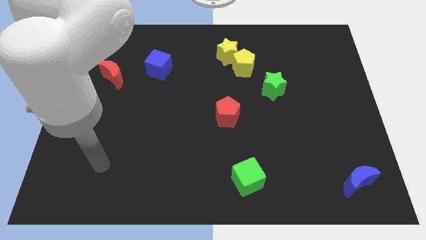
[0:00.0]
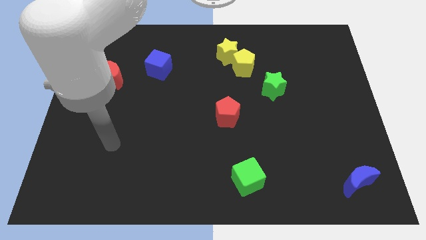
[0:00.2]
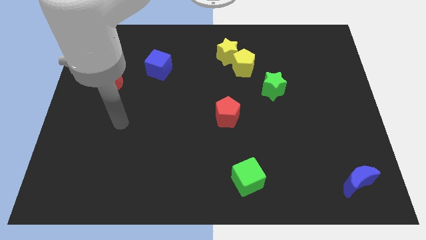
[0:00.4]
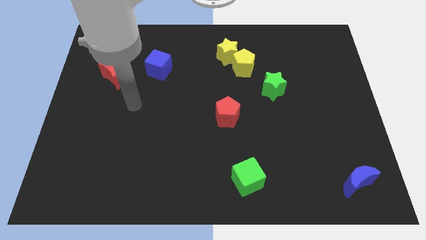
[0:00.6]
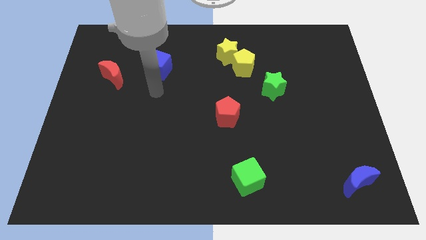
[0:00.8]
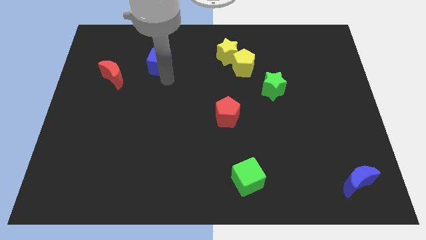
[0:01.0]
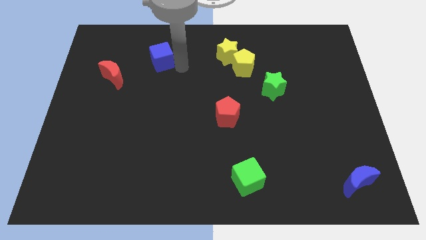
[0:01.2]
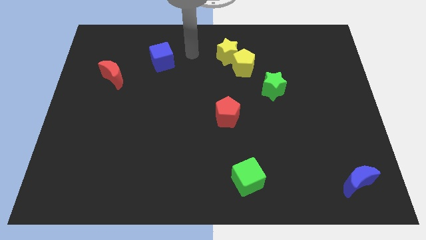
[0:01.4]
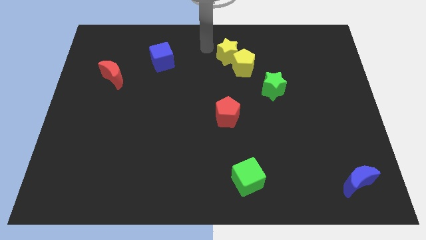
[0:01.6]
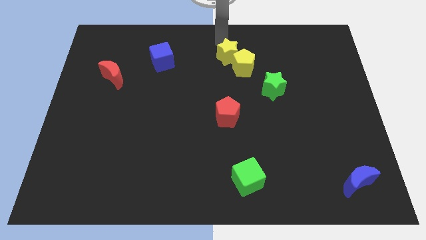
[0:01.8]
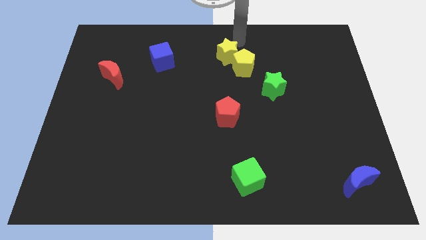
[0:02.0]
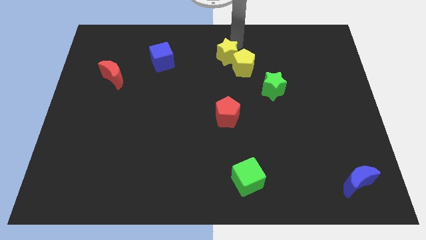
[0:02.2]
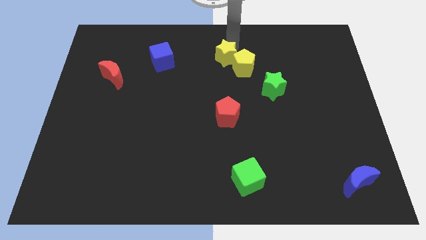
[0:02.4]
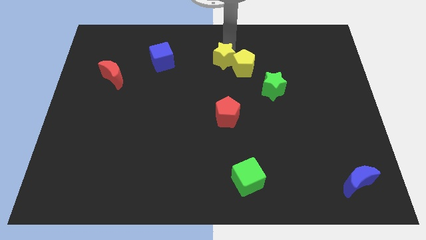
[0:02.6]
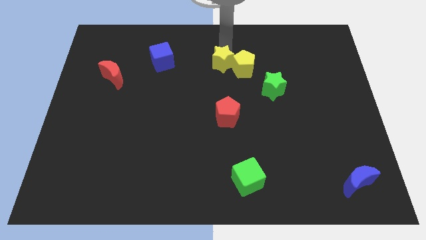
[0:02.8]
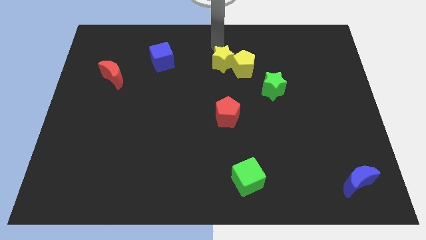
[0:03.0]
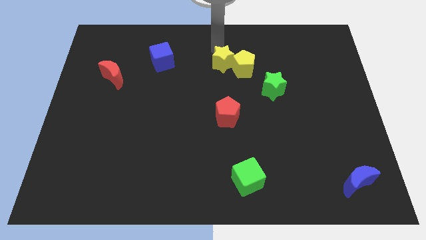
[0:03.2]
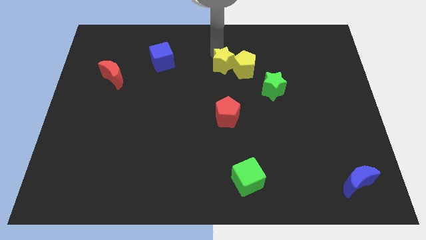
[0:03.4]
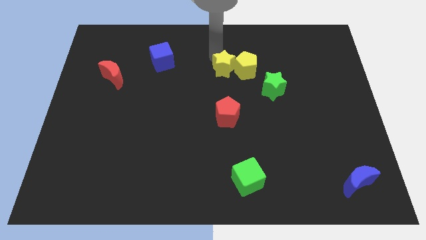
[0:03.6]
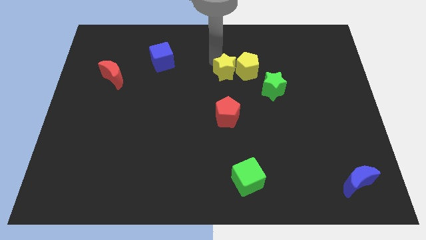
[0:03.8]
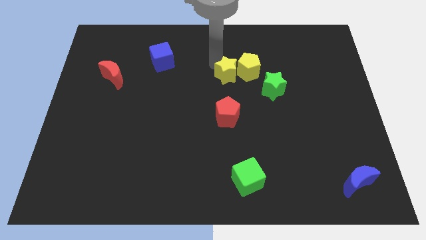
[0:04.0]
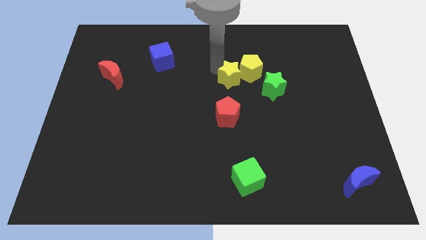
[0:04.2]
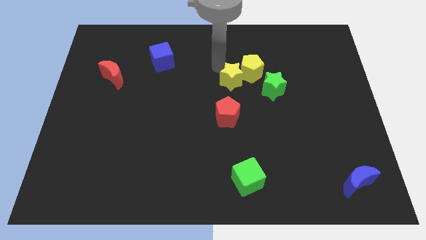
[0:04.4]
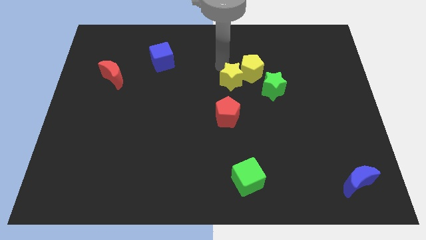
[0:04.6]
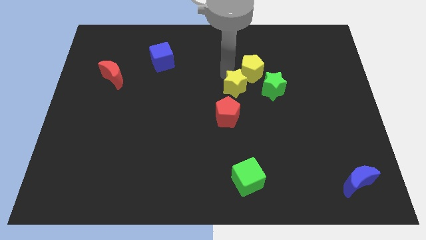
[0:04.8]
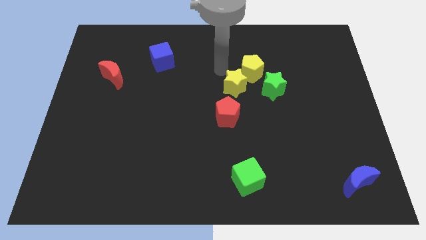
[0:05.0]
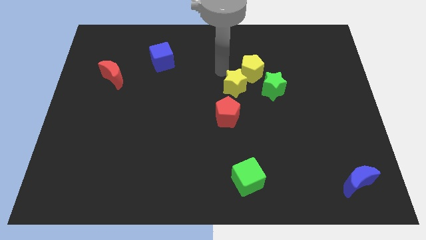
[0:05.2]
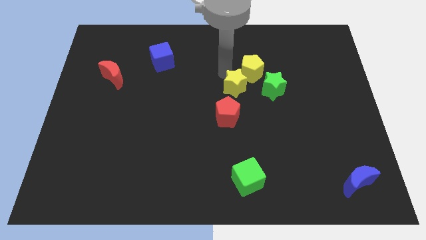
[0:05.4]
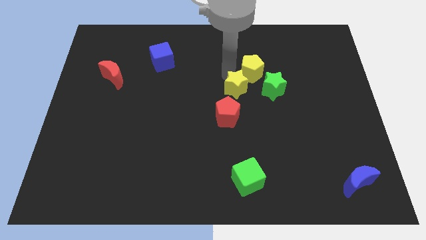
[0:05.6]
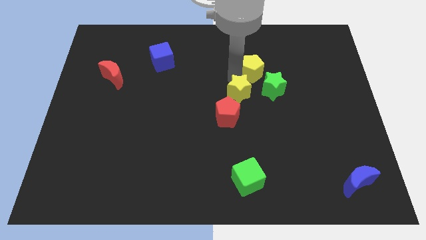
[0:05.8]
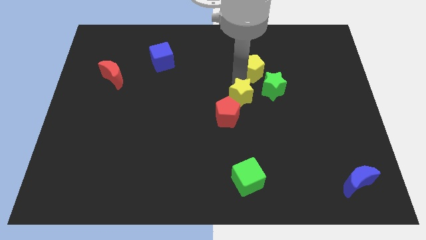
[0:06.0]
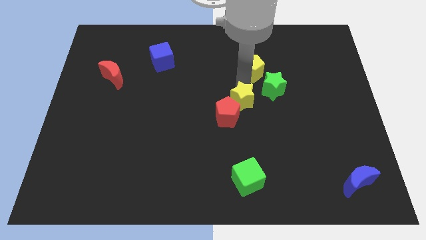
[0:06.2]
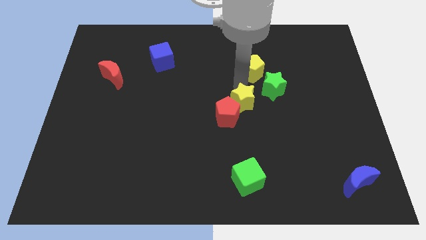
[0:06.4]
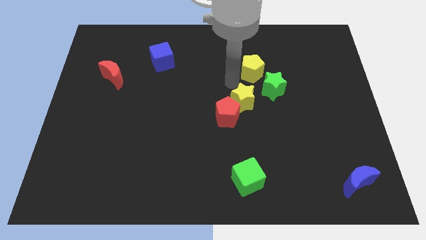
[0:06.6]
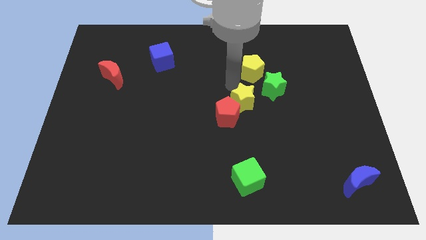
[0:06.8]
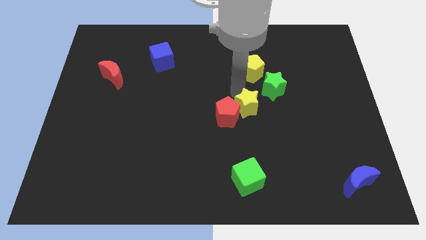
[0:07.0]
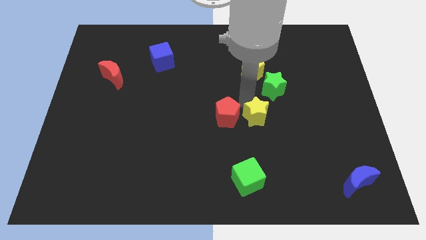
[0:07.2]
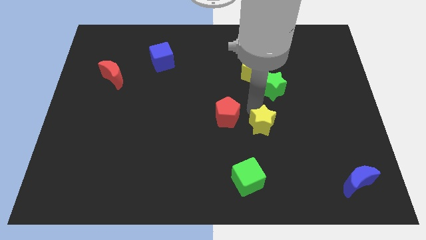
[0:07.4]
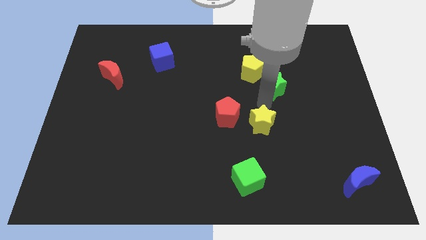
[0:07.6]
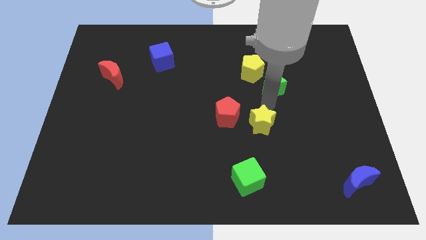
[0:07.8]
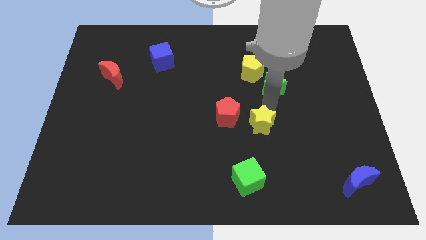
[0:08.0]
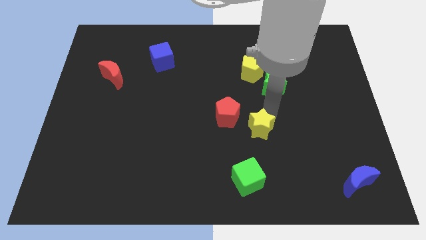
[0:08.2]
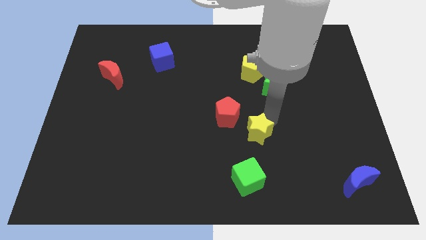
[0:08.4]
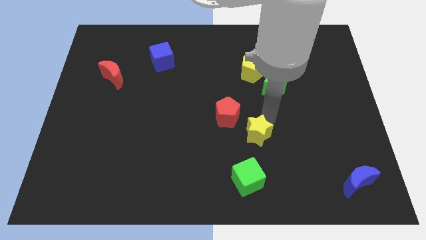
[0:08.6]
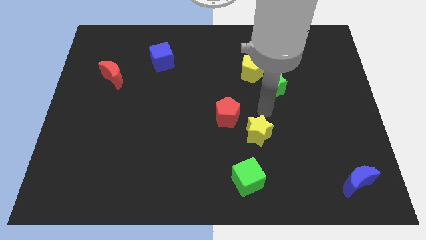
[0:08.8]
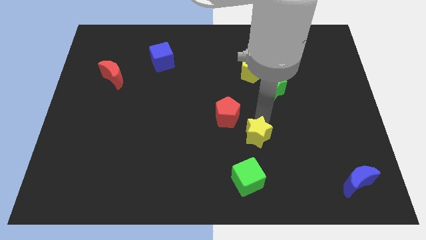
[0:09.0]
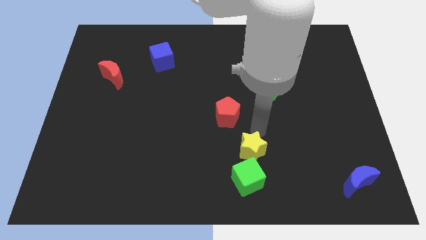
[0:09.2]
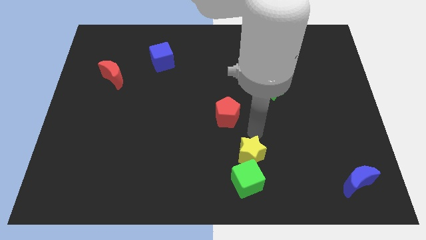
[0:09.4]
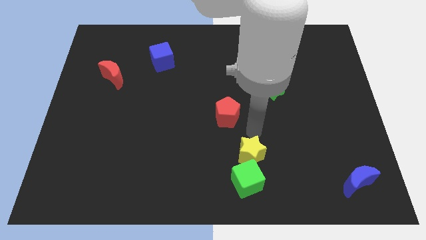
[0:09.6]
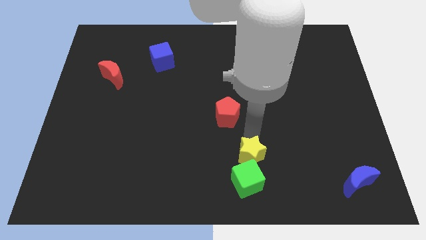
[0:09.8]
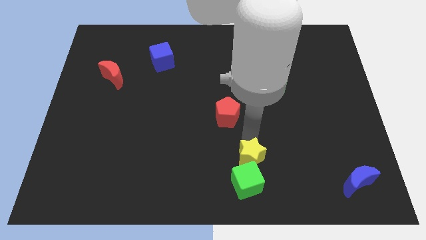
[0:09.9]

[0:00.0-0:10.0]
put the yellow star close to the green cube

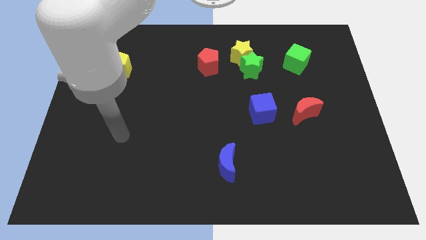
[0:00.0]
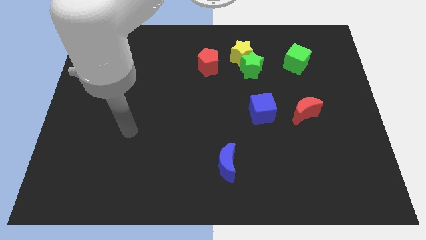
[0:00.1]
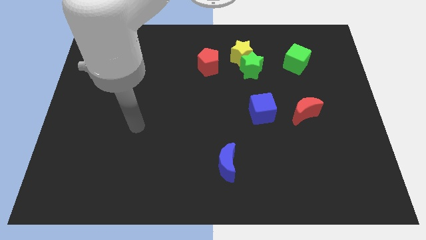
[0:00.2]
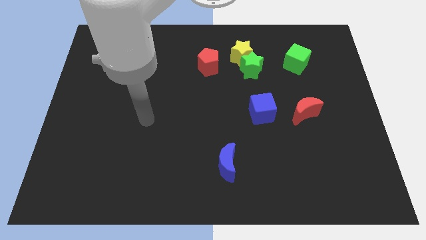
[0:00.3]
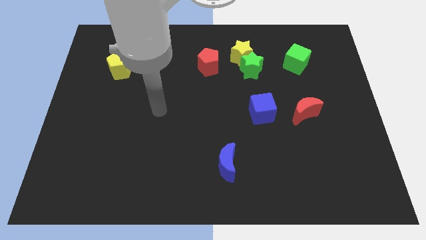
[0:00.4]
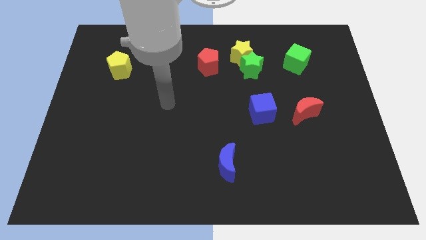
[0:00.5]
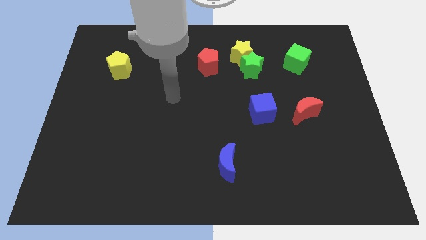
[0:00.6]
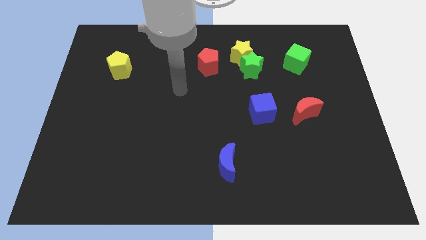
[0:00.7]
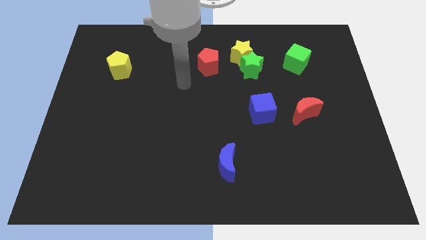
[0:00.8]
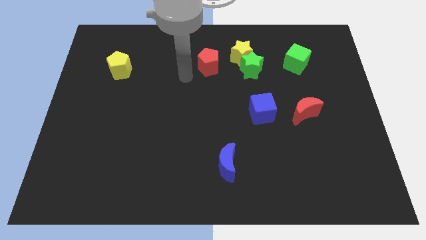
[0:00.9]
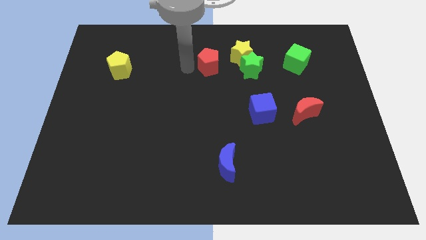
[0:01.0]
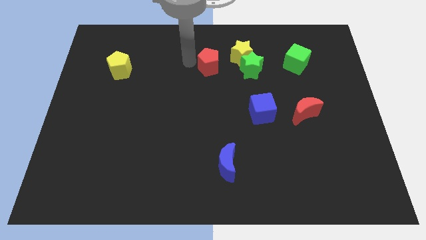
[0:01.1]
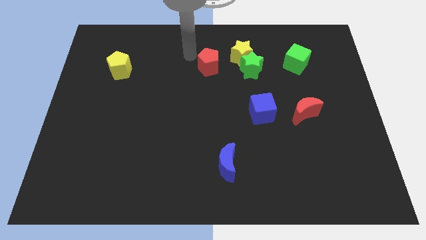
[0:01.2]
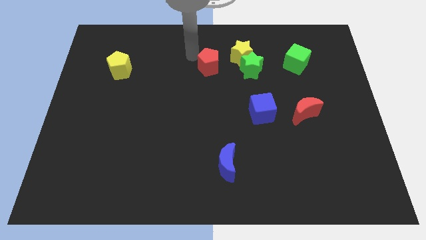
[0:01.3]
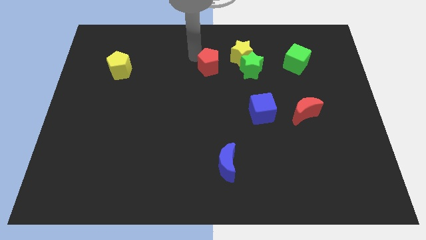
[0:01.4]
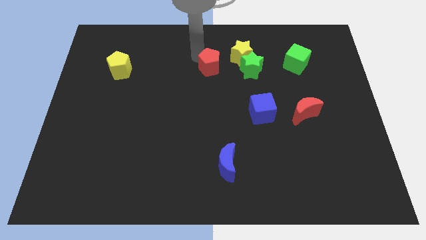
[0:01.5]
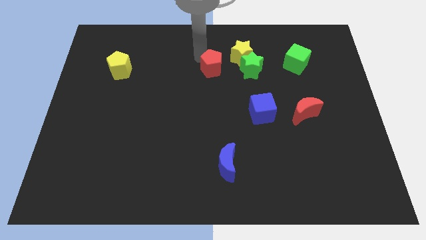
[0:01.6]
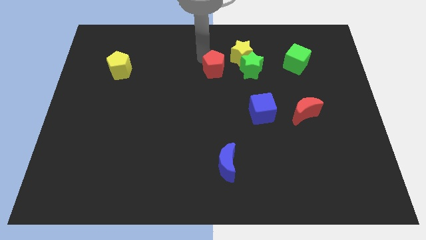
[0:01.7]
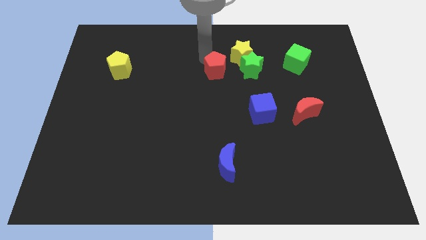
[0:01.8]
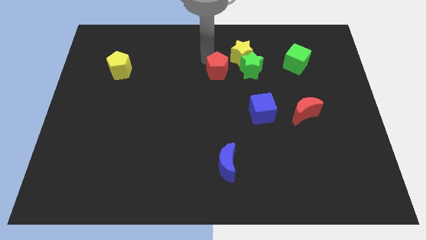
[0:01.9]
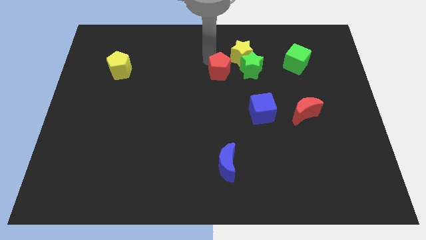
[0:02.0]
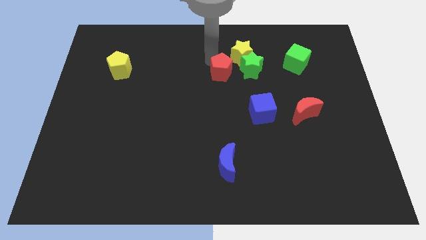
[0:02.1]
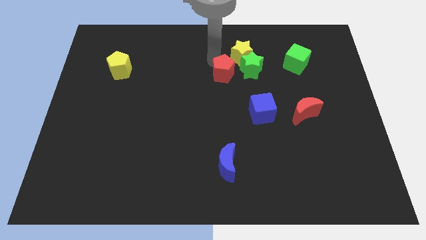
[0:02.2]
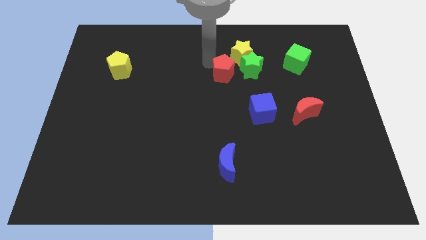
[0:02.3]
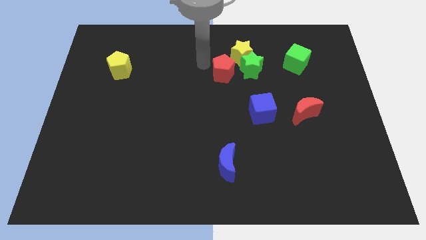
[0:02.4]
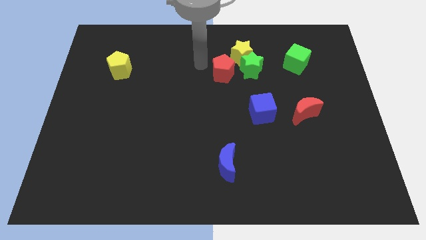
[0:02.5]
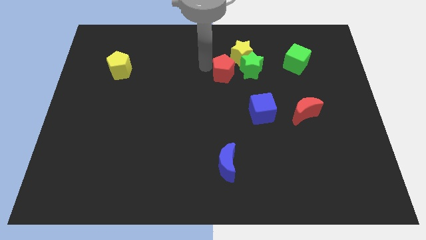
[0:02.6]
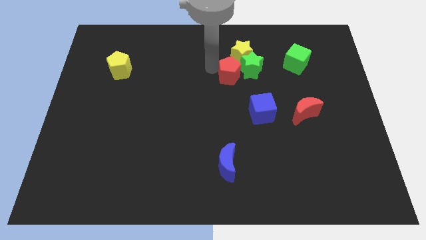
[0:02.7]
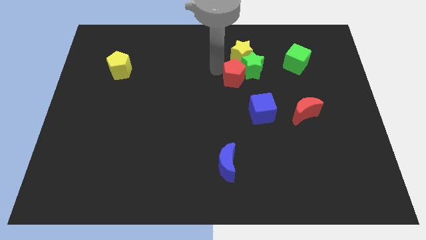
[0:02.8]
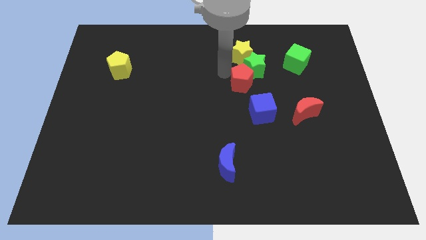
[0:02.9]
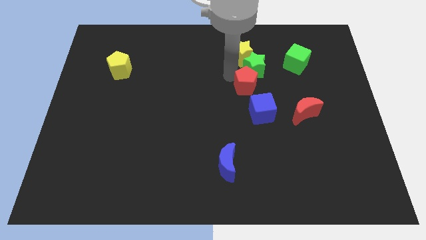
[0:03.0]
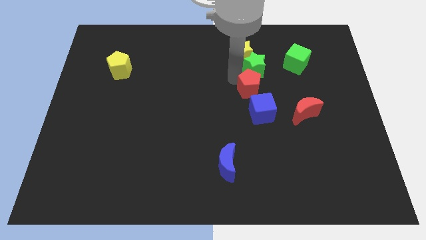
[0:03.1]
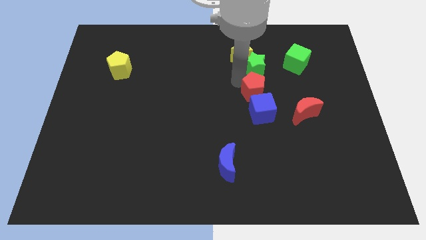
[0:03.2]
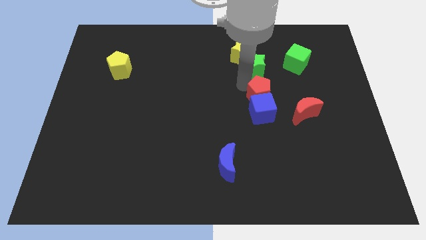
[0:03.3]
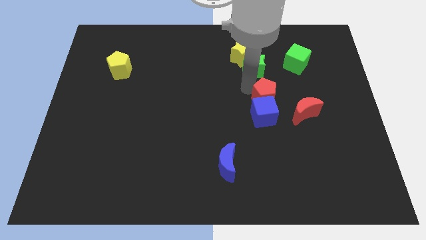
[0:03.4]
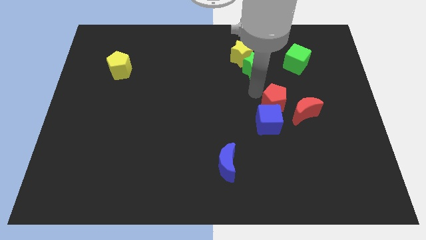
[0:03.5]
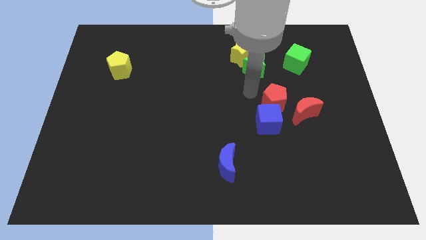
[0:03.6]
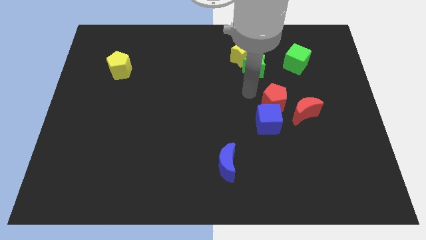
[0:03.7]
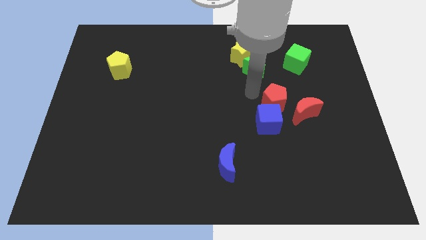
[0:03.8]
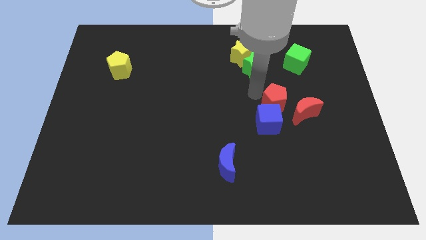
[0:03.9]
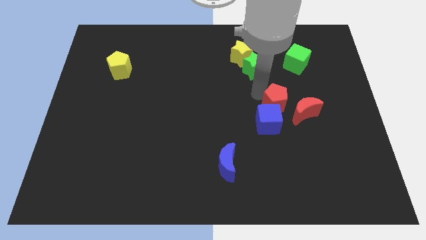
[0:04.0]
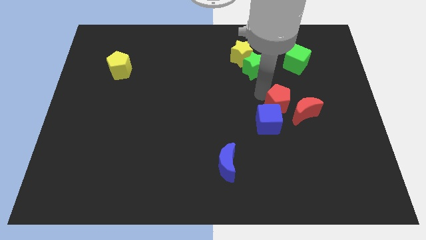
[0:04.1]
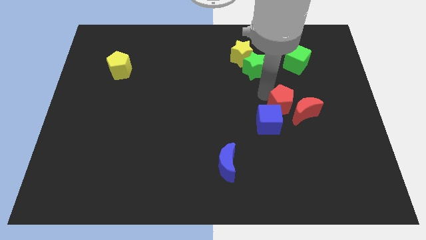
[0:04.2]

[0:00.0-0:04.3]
put the red pentagon towards the red moon
